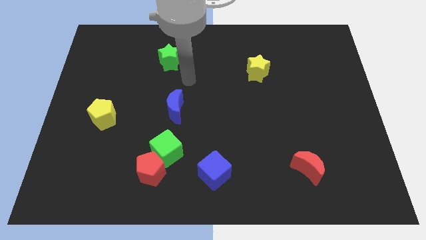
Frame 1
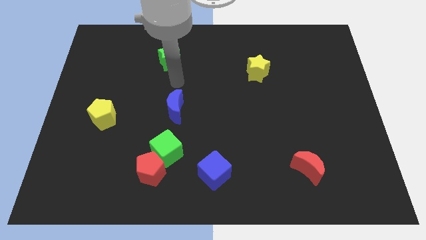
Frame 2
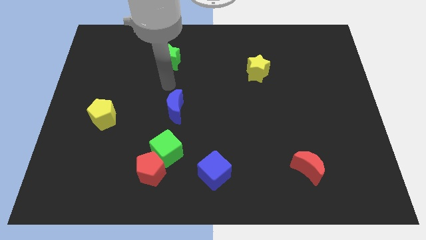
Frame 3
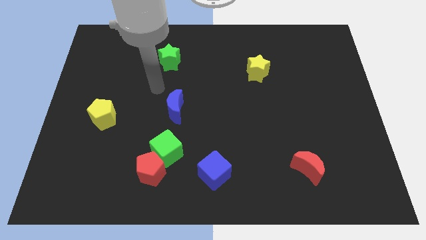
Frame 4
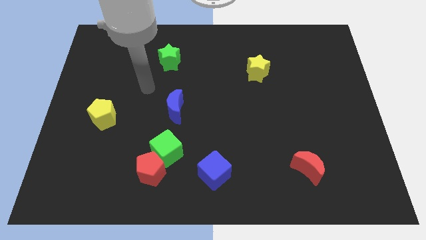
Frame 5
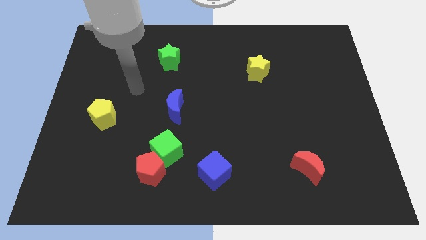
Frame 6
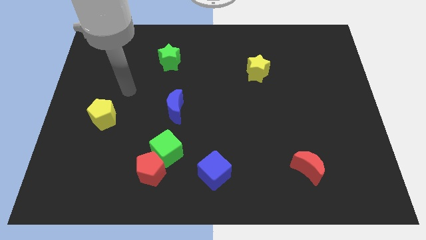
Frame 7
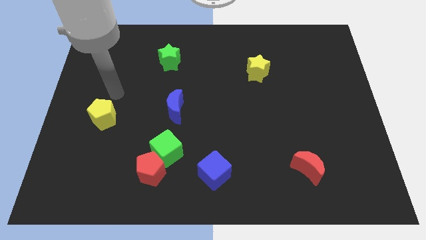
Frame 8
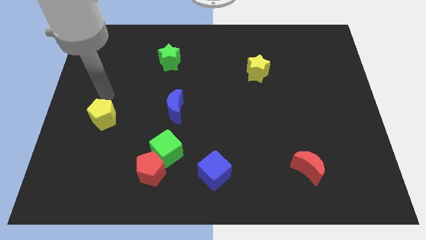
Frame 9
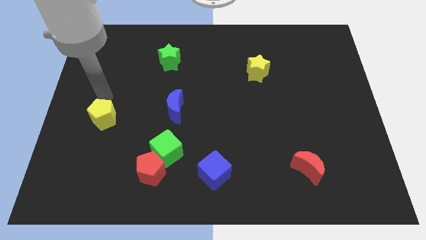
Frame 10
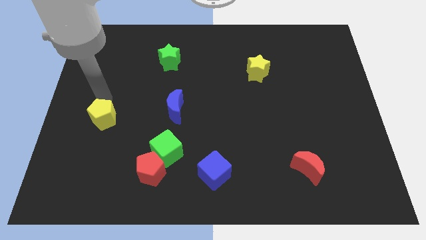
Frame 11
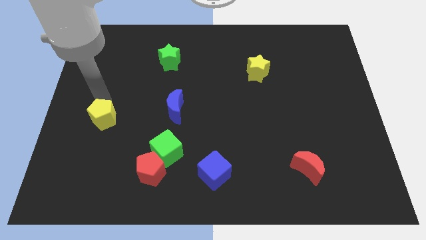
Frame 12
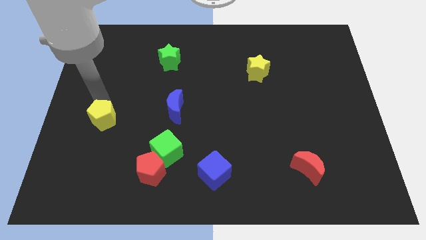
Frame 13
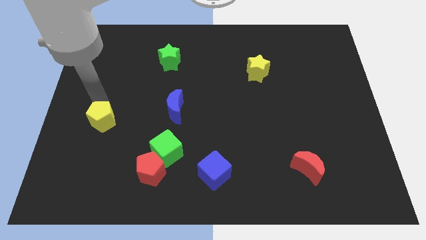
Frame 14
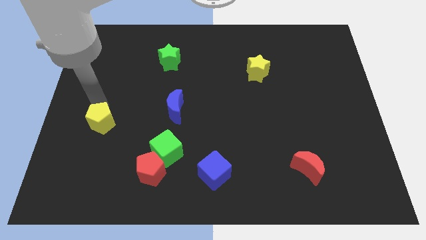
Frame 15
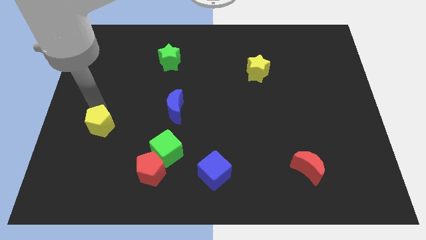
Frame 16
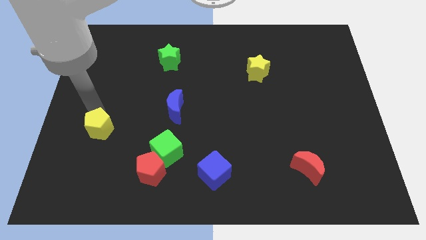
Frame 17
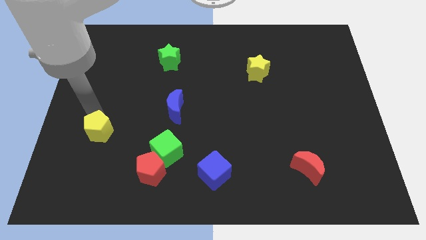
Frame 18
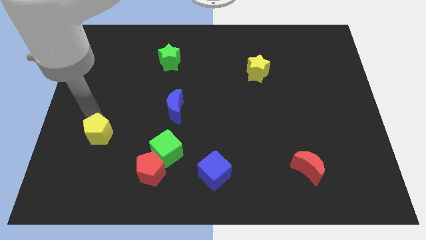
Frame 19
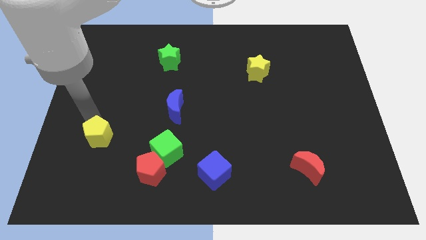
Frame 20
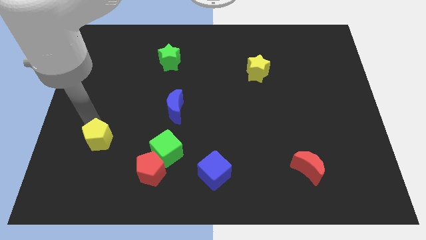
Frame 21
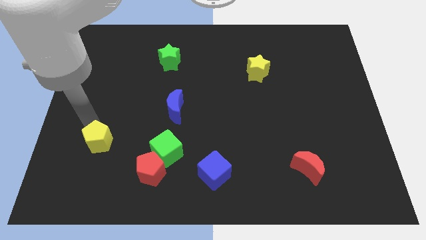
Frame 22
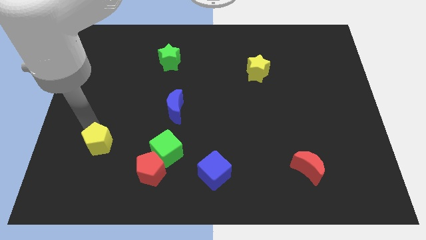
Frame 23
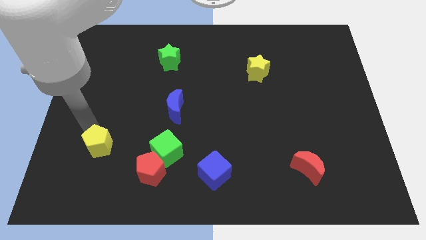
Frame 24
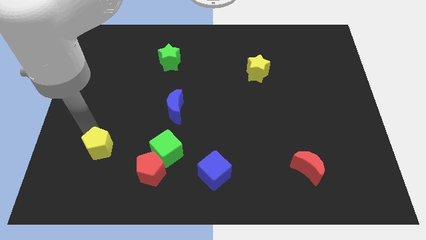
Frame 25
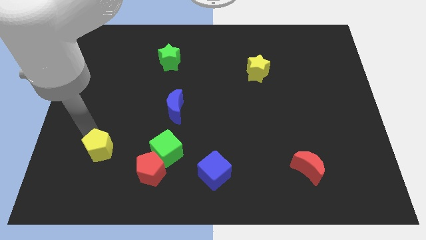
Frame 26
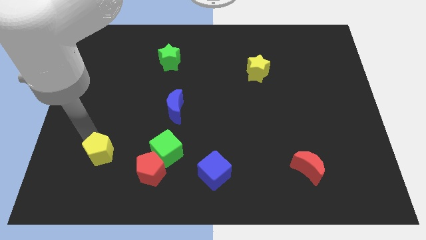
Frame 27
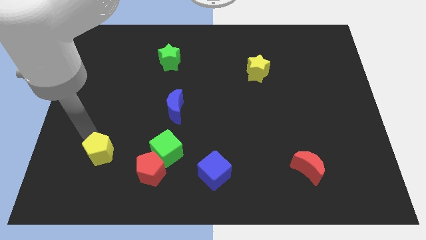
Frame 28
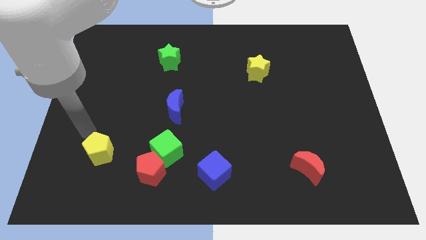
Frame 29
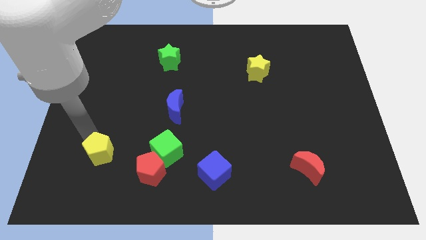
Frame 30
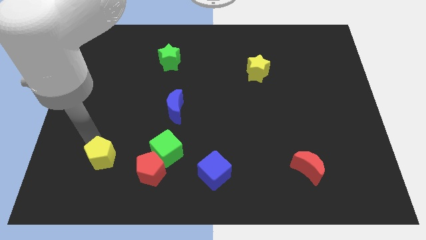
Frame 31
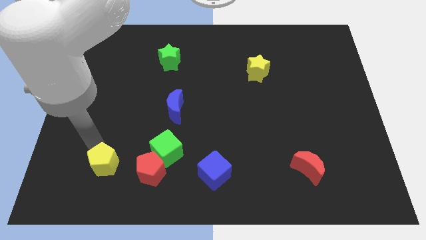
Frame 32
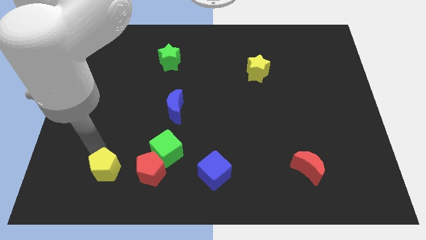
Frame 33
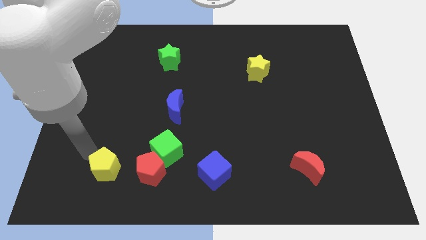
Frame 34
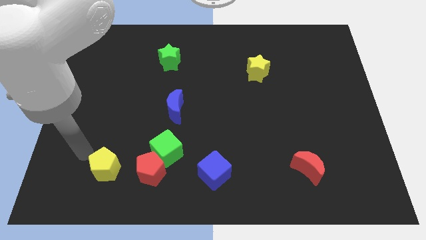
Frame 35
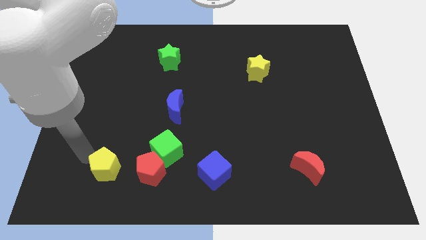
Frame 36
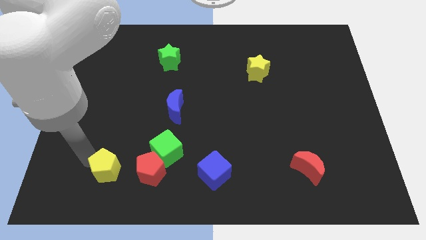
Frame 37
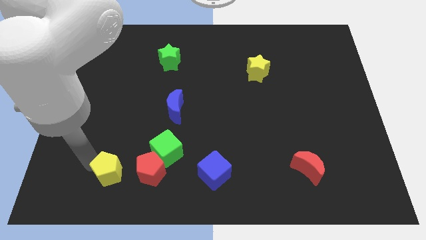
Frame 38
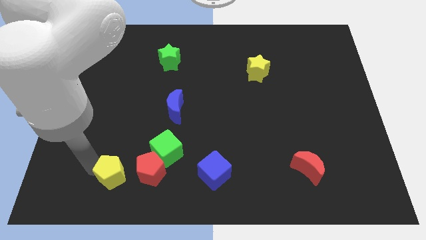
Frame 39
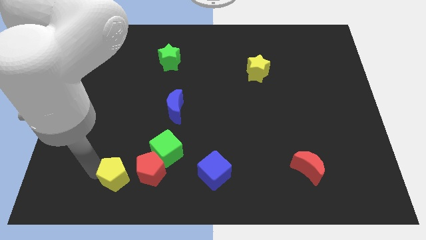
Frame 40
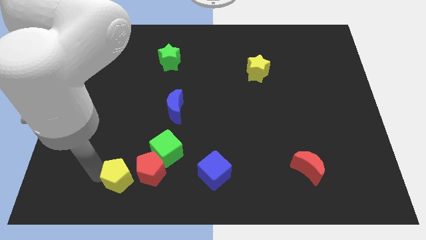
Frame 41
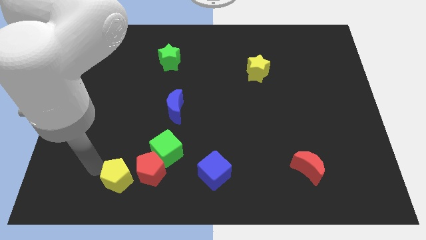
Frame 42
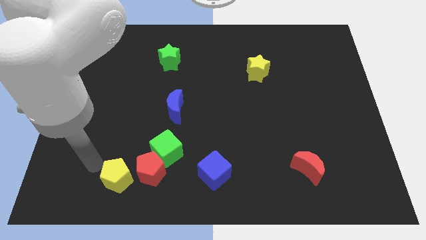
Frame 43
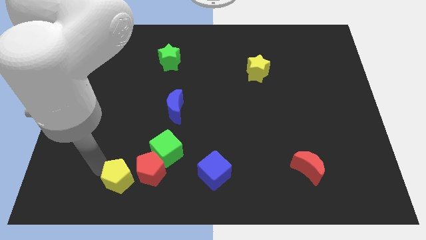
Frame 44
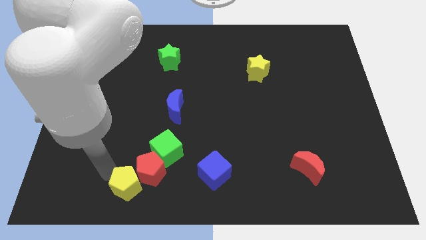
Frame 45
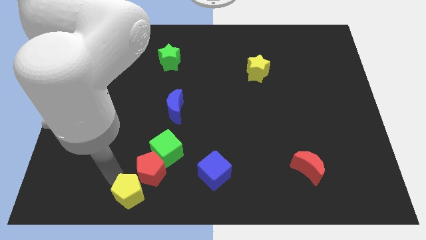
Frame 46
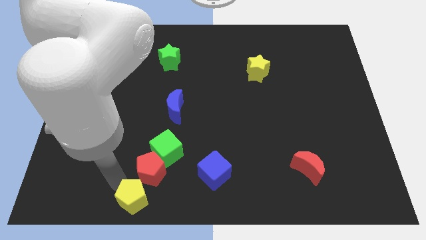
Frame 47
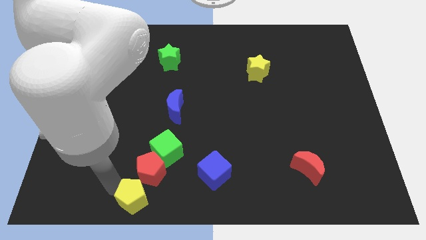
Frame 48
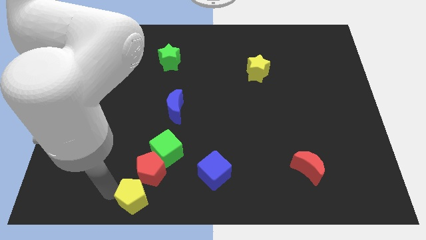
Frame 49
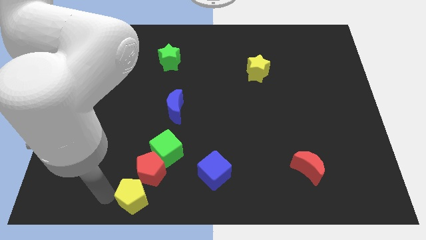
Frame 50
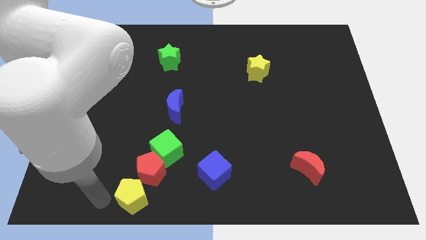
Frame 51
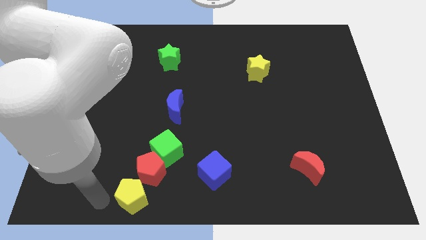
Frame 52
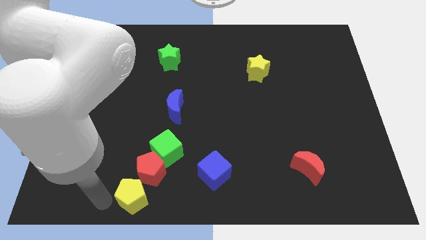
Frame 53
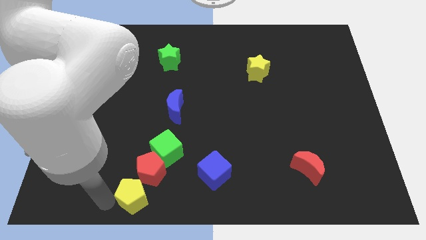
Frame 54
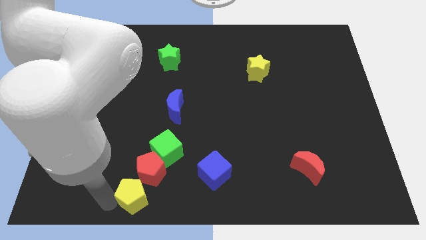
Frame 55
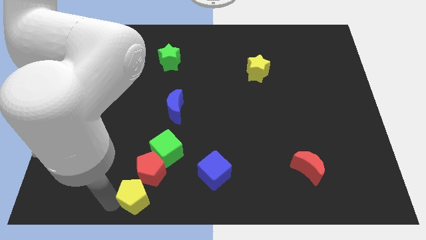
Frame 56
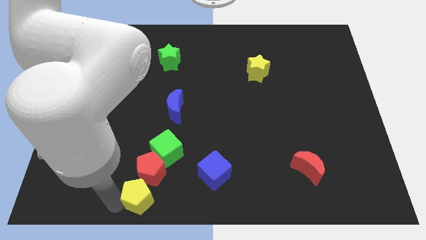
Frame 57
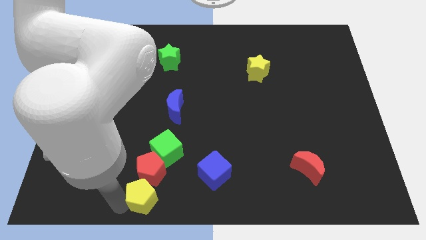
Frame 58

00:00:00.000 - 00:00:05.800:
slide the yellow pentagon to the bottom side

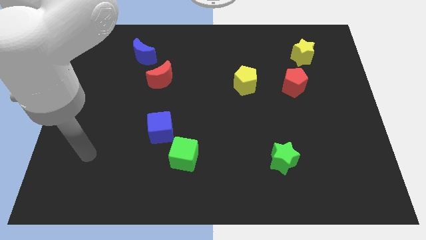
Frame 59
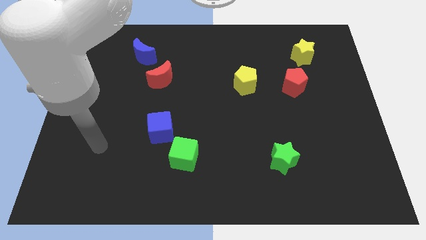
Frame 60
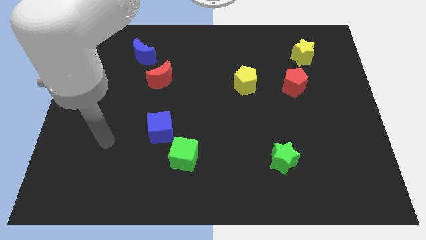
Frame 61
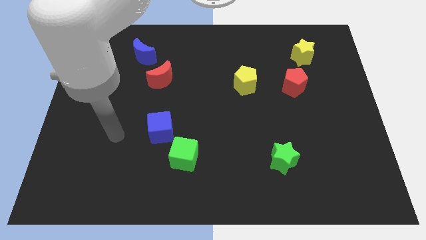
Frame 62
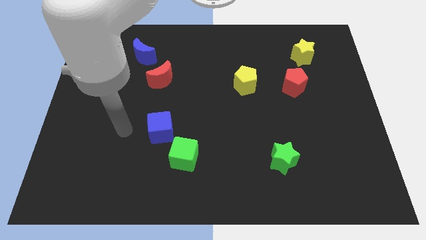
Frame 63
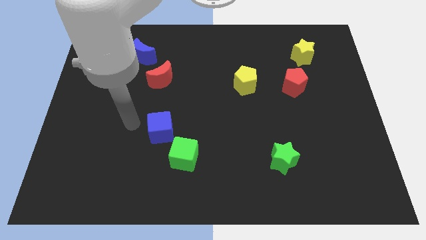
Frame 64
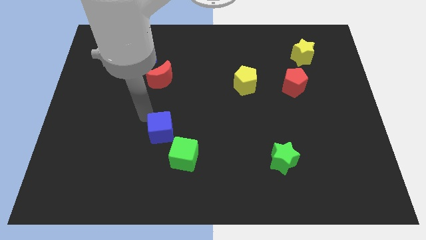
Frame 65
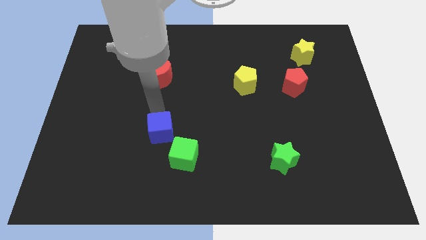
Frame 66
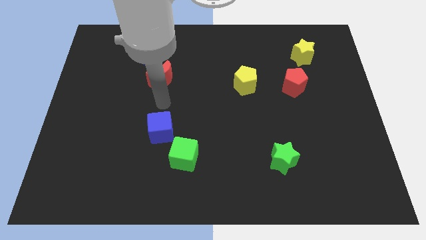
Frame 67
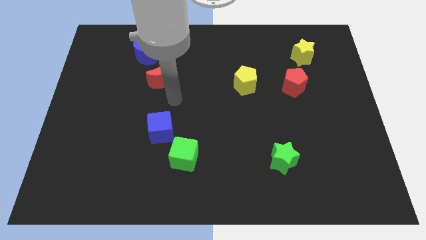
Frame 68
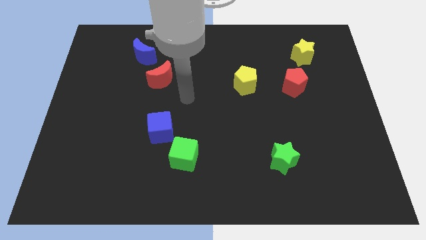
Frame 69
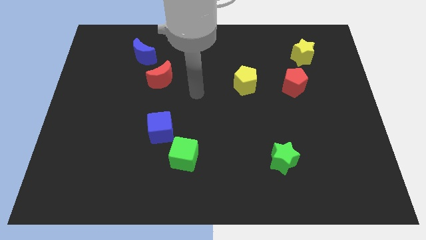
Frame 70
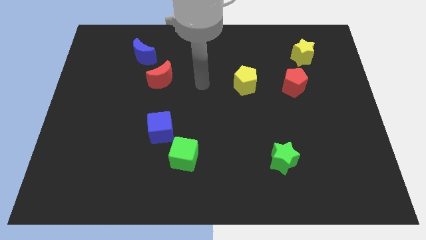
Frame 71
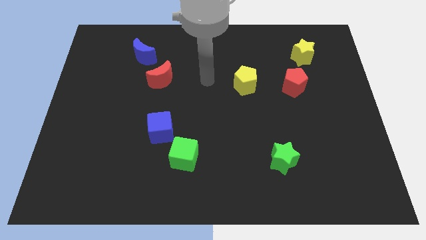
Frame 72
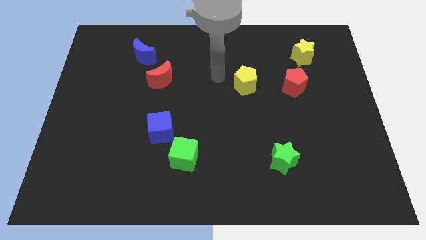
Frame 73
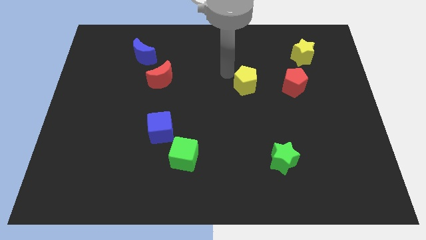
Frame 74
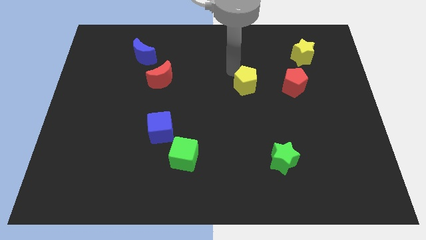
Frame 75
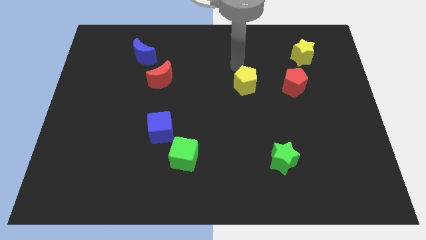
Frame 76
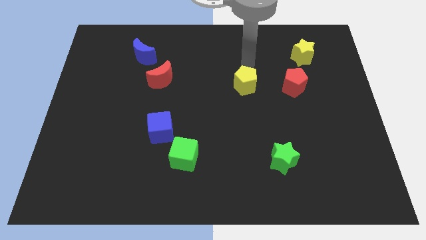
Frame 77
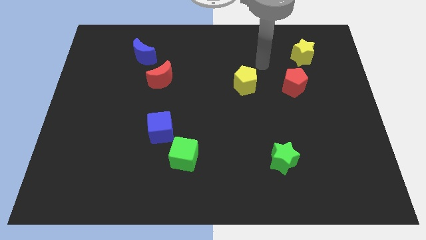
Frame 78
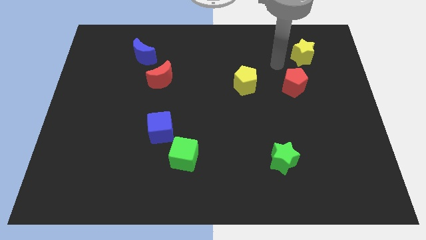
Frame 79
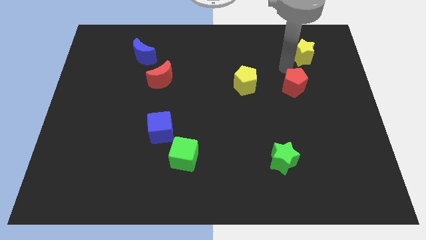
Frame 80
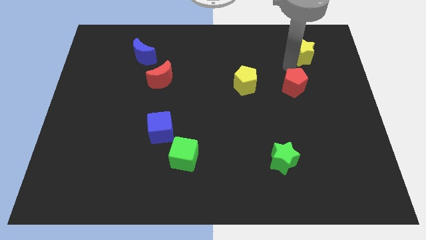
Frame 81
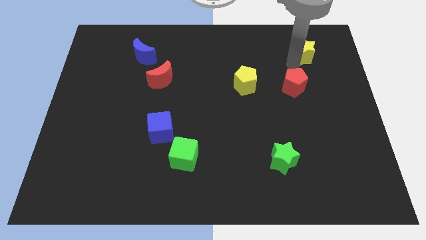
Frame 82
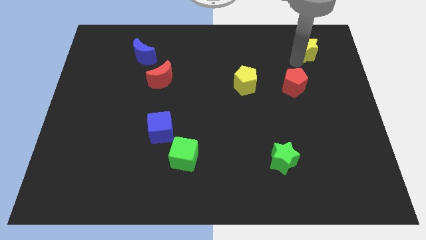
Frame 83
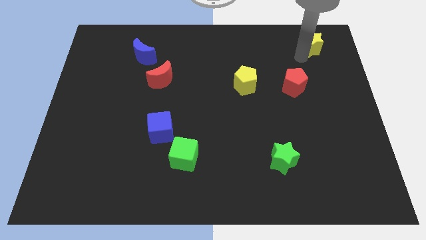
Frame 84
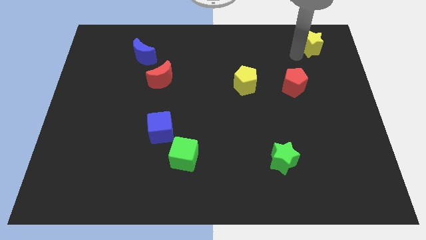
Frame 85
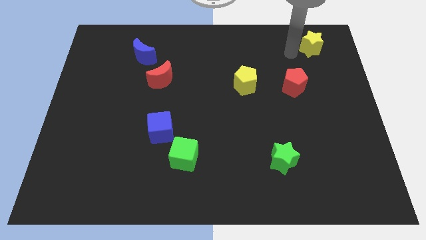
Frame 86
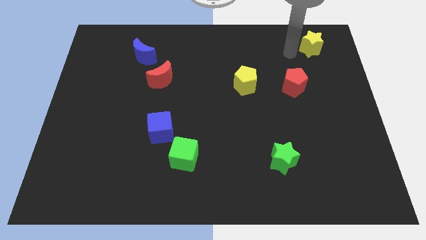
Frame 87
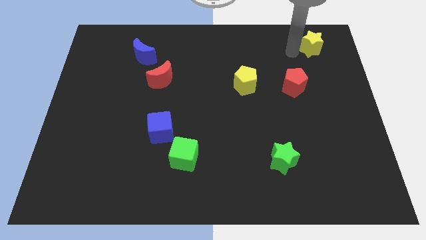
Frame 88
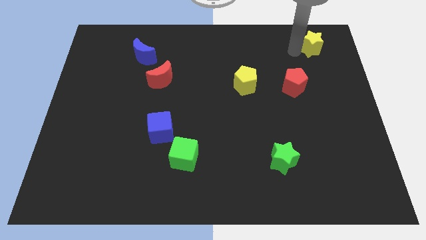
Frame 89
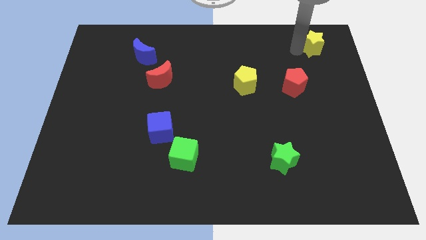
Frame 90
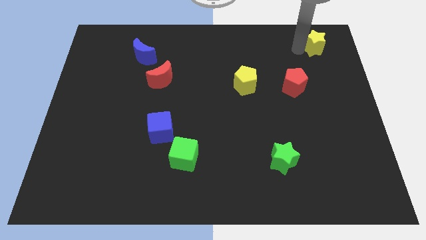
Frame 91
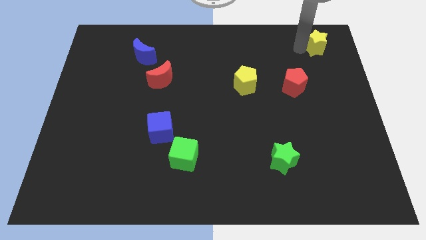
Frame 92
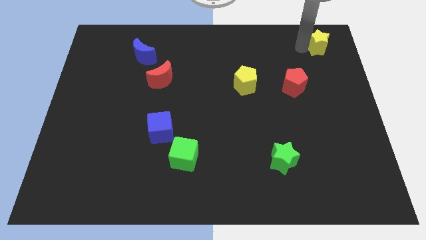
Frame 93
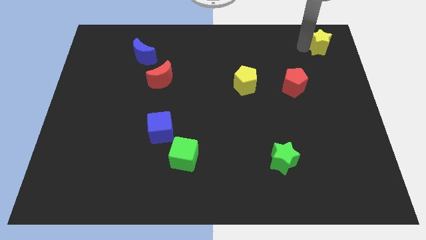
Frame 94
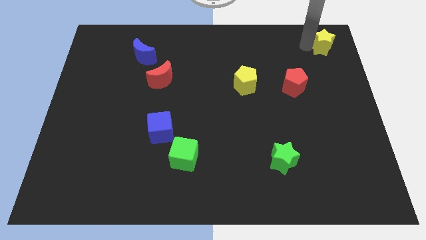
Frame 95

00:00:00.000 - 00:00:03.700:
slide the yellow star to the top right
